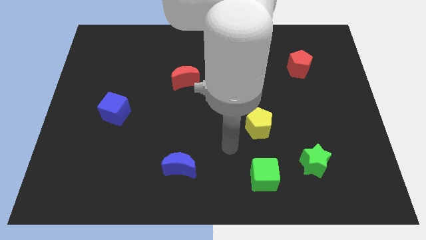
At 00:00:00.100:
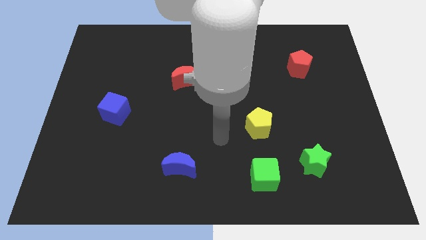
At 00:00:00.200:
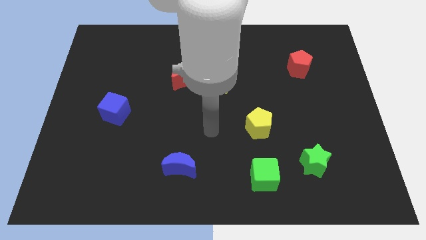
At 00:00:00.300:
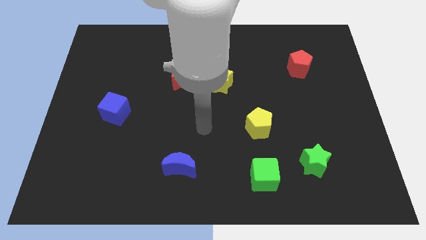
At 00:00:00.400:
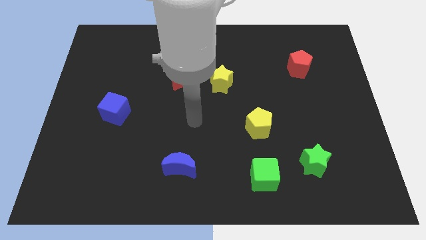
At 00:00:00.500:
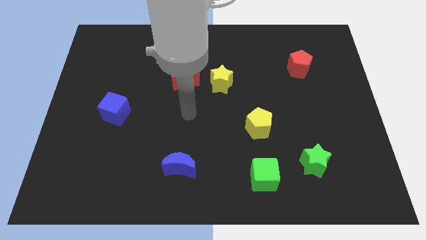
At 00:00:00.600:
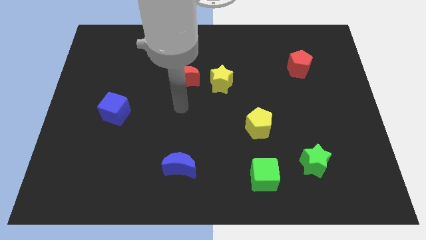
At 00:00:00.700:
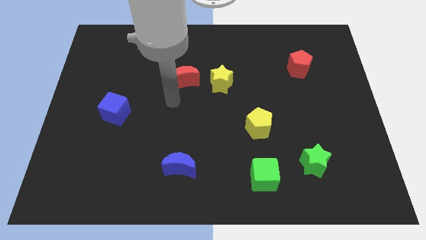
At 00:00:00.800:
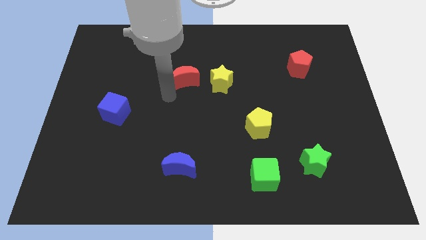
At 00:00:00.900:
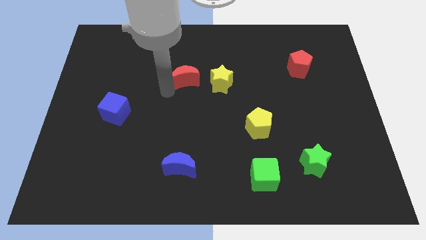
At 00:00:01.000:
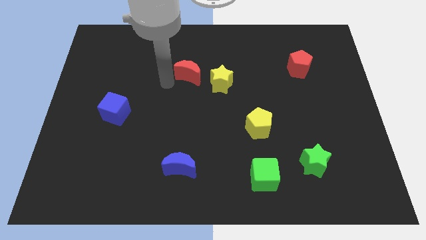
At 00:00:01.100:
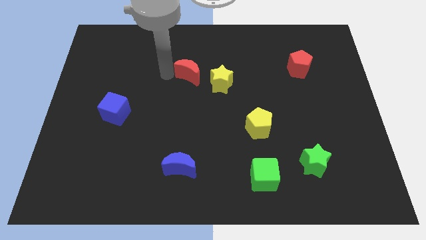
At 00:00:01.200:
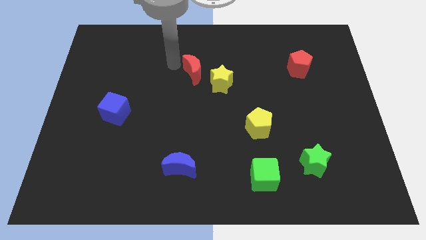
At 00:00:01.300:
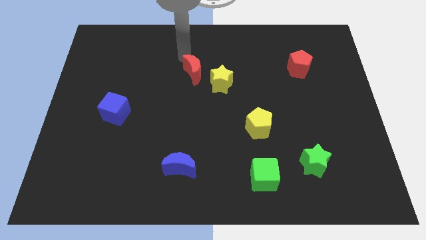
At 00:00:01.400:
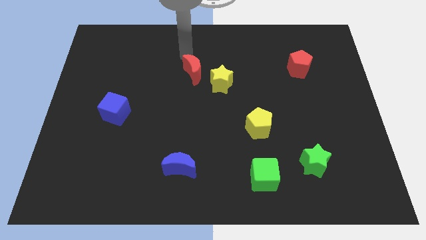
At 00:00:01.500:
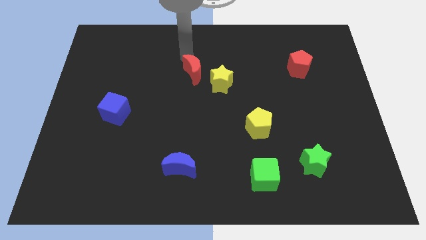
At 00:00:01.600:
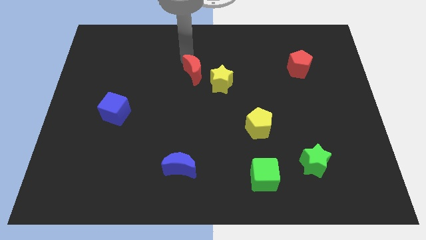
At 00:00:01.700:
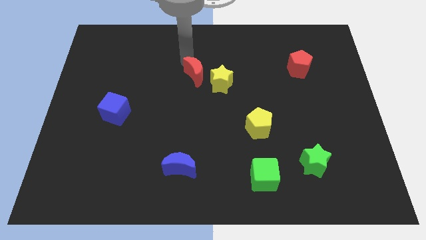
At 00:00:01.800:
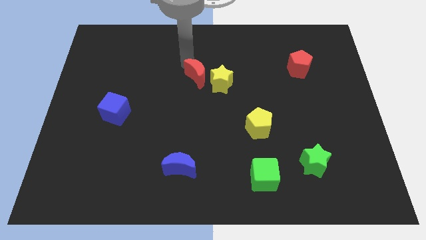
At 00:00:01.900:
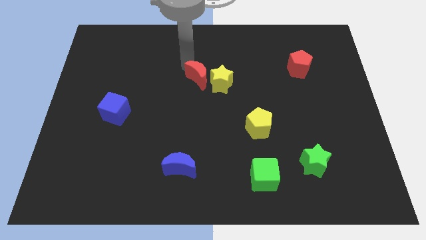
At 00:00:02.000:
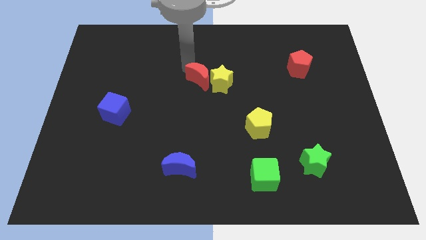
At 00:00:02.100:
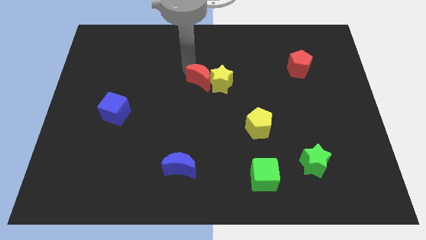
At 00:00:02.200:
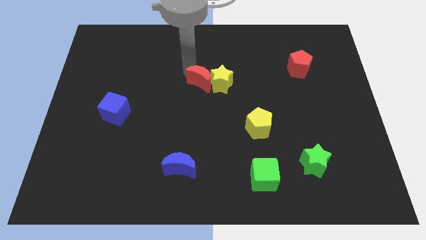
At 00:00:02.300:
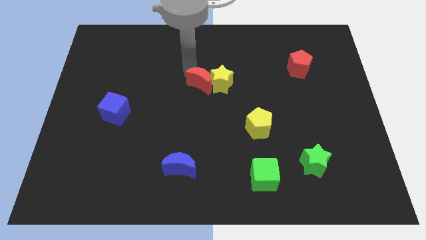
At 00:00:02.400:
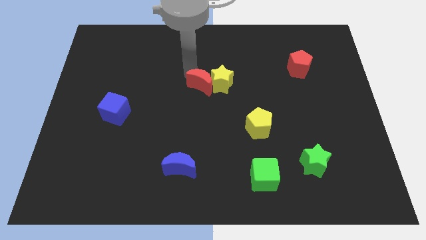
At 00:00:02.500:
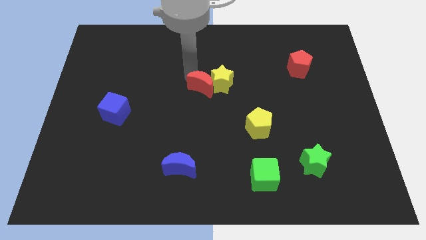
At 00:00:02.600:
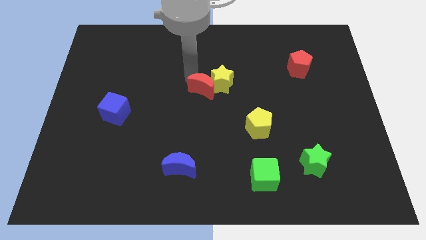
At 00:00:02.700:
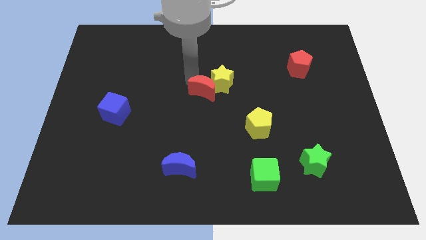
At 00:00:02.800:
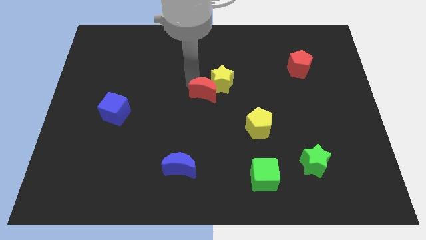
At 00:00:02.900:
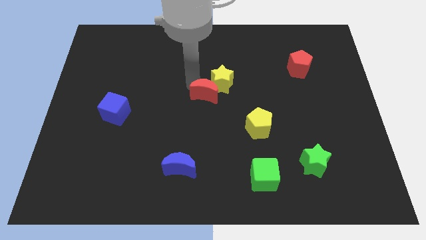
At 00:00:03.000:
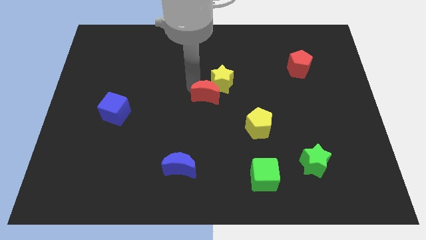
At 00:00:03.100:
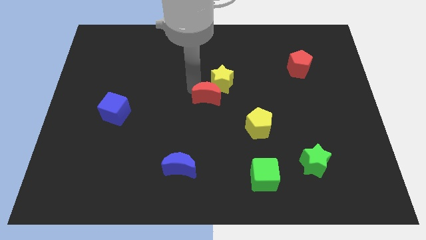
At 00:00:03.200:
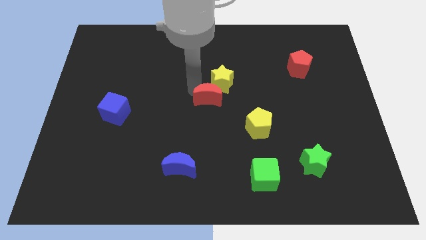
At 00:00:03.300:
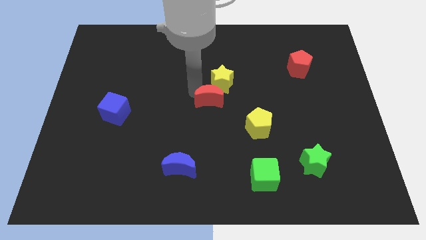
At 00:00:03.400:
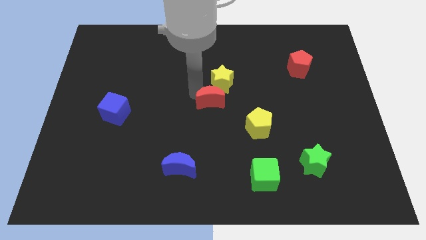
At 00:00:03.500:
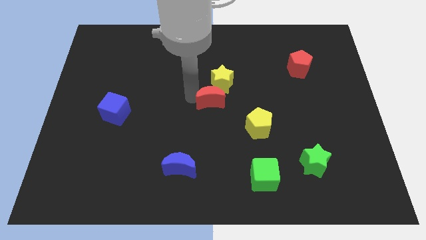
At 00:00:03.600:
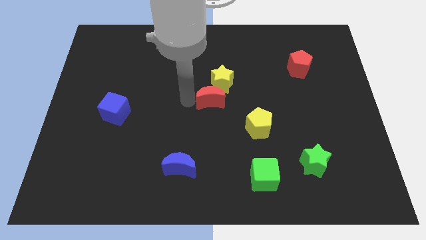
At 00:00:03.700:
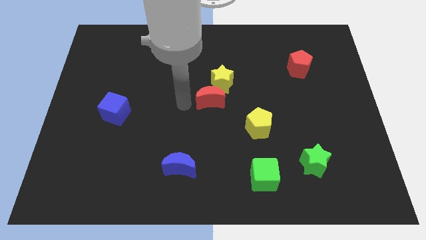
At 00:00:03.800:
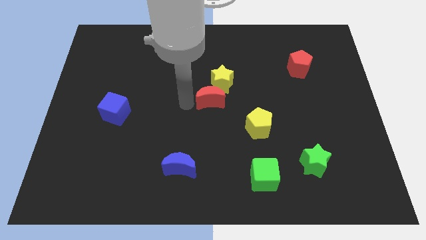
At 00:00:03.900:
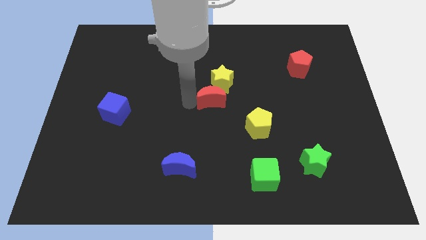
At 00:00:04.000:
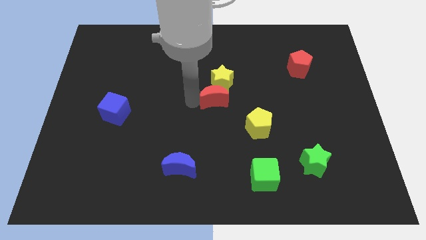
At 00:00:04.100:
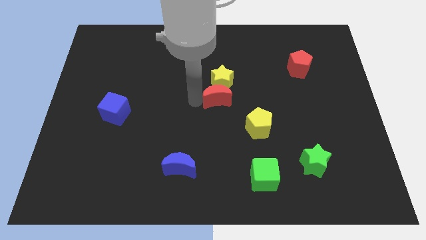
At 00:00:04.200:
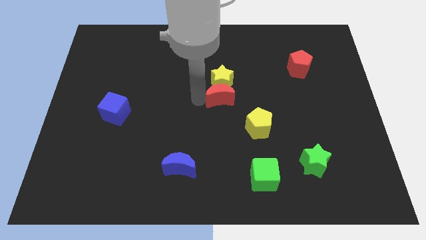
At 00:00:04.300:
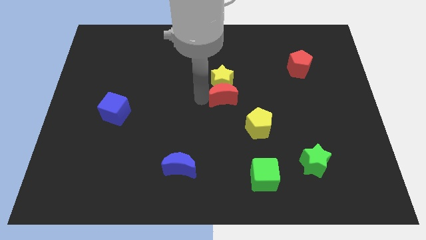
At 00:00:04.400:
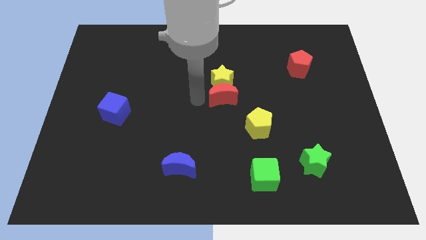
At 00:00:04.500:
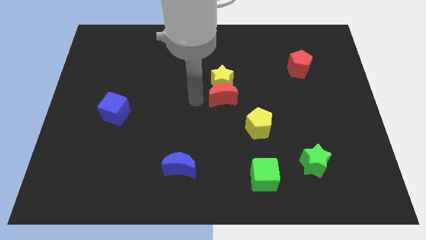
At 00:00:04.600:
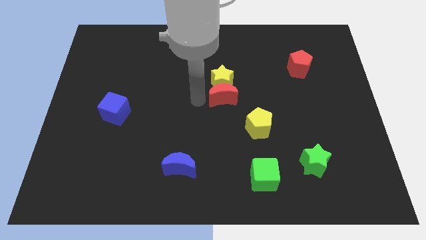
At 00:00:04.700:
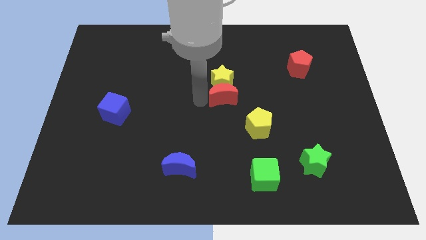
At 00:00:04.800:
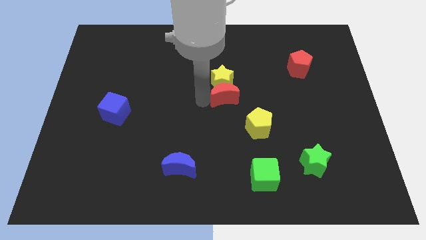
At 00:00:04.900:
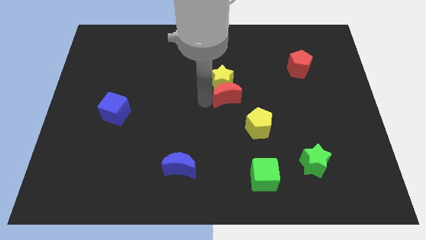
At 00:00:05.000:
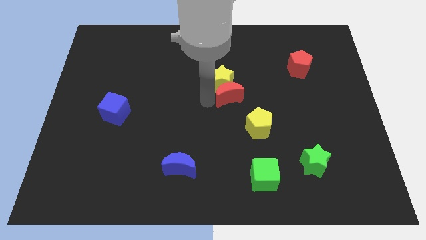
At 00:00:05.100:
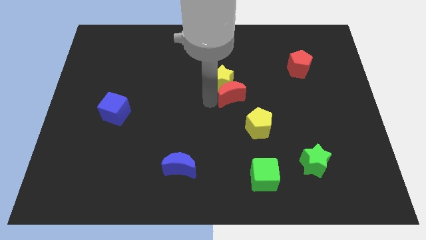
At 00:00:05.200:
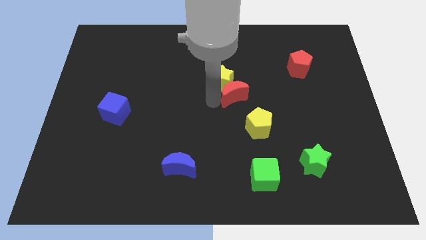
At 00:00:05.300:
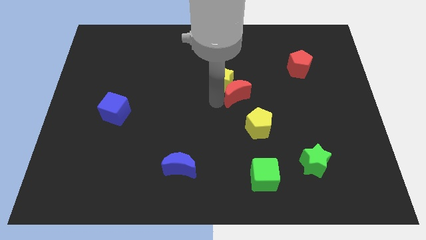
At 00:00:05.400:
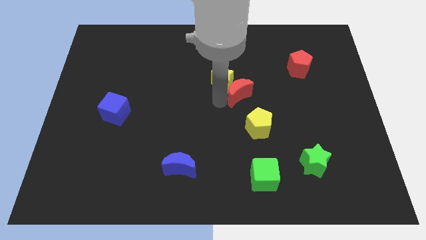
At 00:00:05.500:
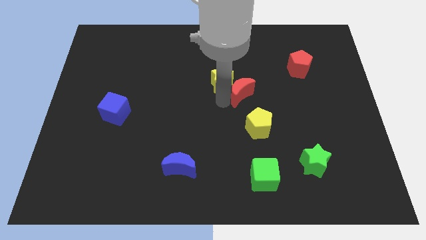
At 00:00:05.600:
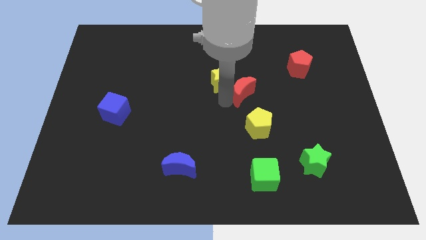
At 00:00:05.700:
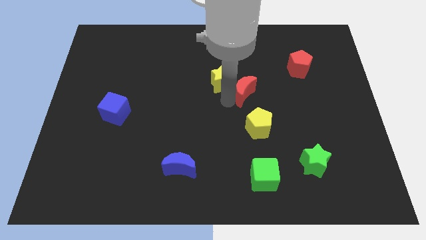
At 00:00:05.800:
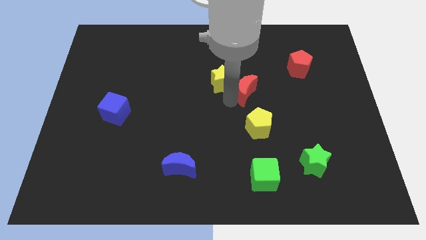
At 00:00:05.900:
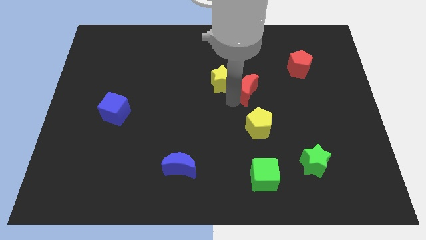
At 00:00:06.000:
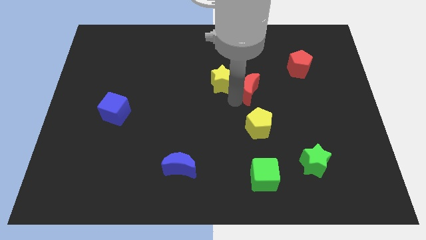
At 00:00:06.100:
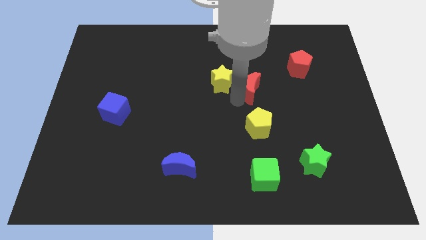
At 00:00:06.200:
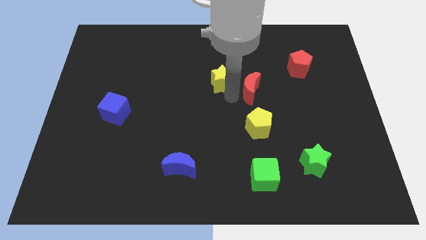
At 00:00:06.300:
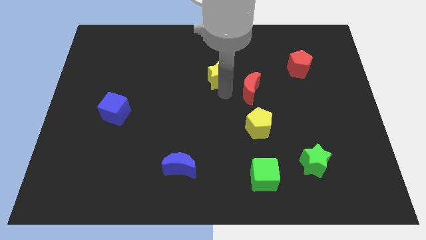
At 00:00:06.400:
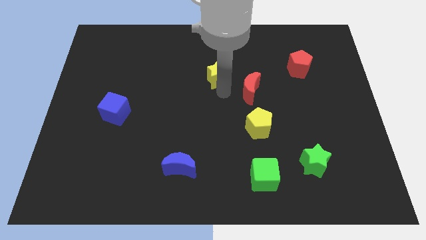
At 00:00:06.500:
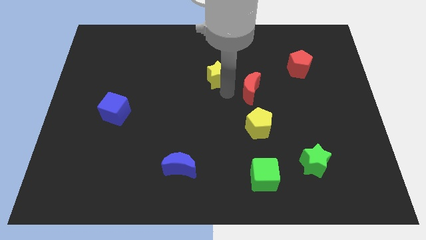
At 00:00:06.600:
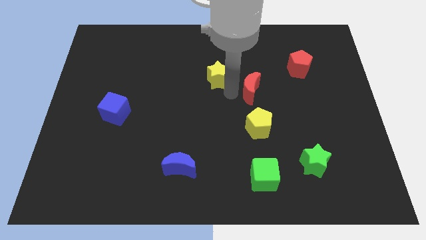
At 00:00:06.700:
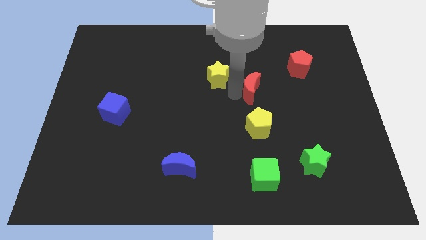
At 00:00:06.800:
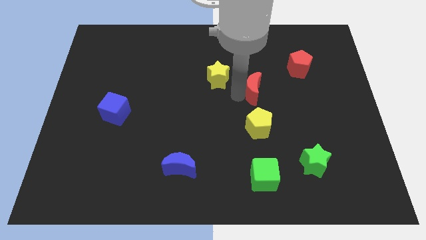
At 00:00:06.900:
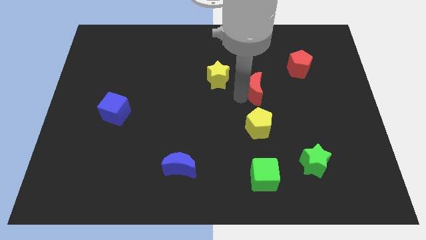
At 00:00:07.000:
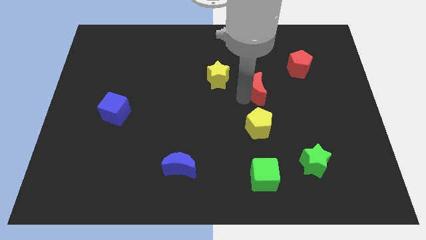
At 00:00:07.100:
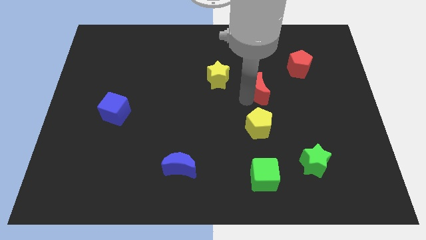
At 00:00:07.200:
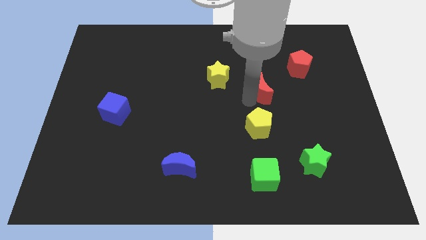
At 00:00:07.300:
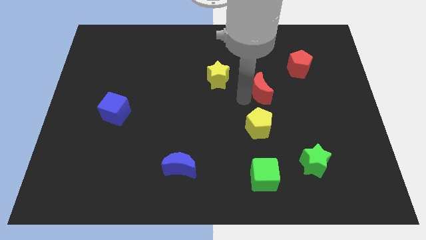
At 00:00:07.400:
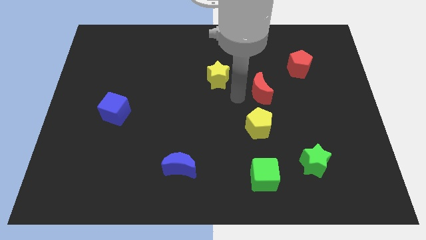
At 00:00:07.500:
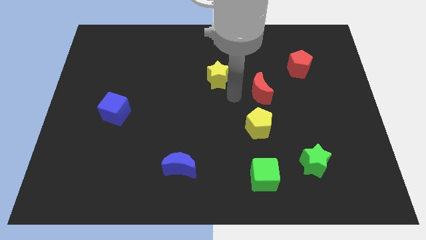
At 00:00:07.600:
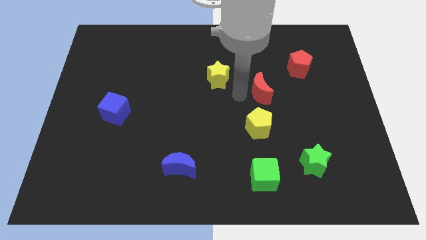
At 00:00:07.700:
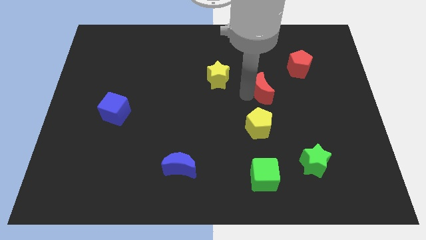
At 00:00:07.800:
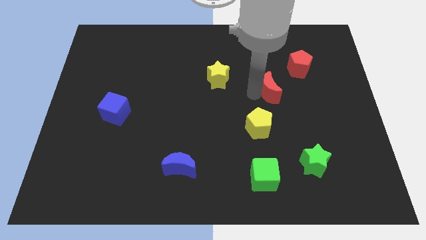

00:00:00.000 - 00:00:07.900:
move the red moon to the right

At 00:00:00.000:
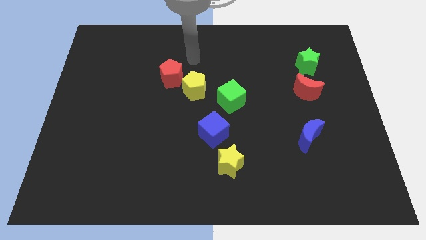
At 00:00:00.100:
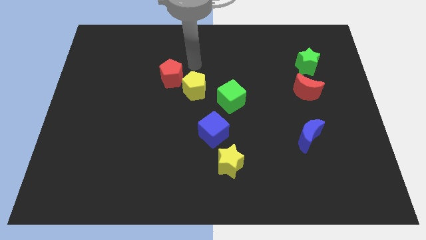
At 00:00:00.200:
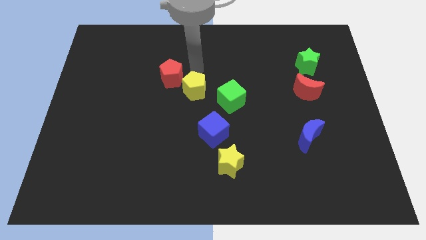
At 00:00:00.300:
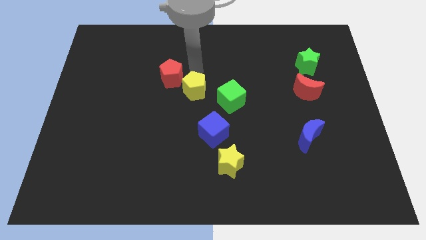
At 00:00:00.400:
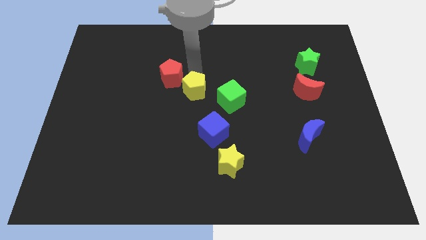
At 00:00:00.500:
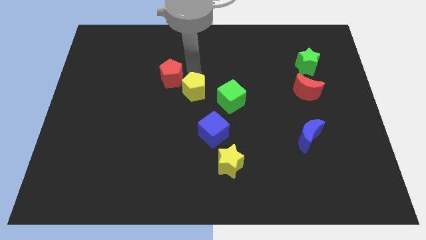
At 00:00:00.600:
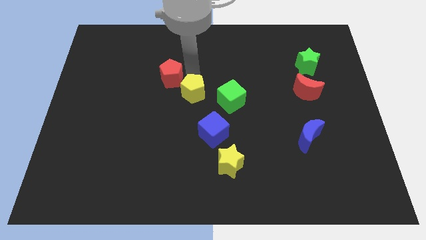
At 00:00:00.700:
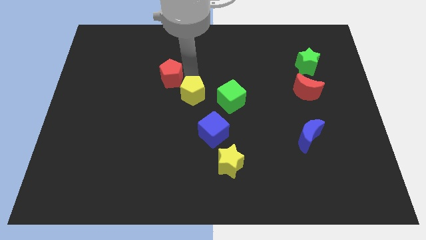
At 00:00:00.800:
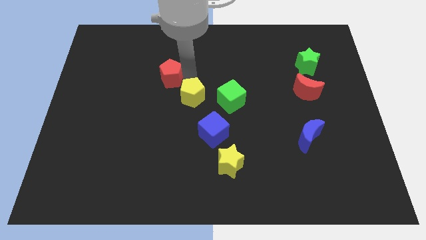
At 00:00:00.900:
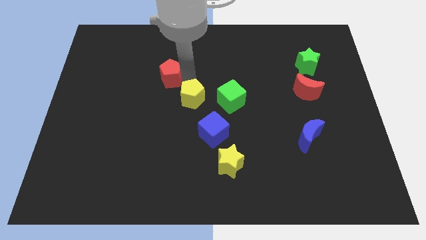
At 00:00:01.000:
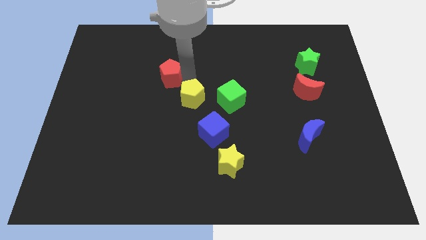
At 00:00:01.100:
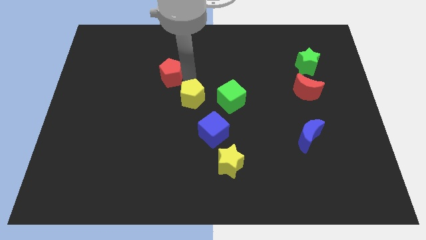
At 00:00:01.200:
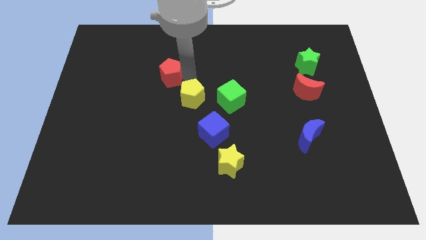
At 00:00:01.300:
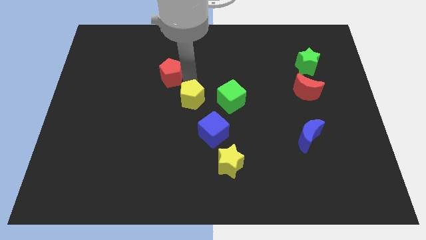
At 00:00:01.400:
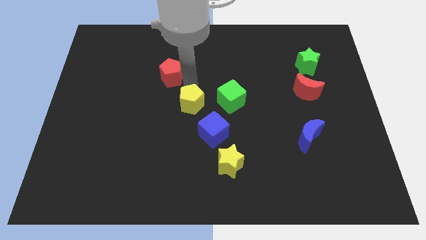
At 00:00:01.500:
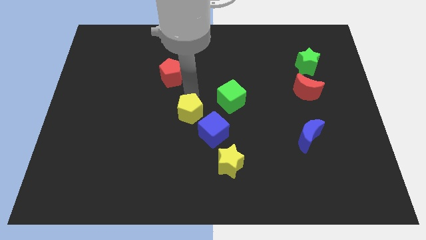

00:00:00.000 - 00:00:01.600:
slide the yellow pentagon slightly downwards
